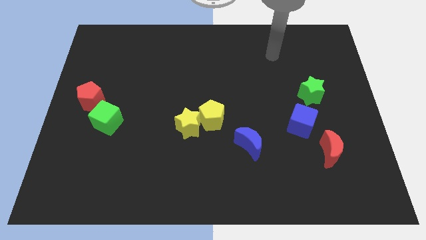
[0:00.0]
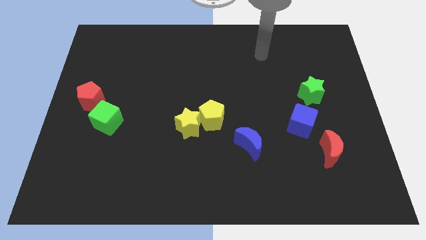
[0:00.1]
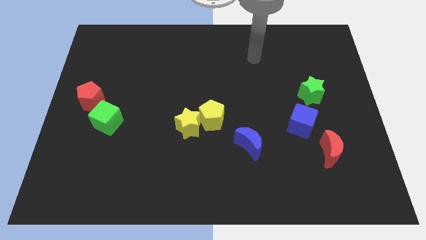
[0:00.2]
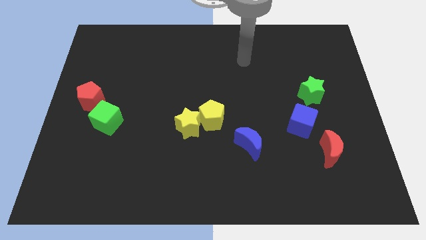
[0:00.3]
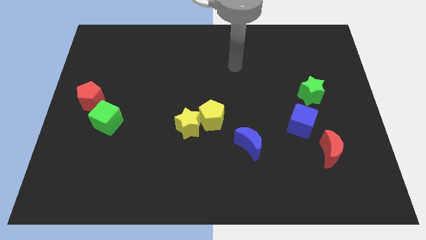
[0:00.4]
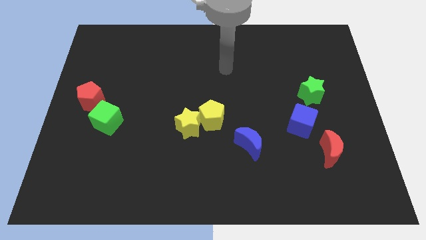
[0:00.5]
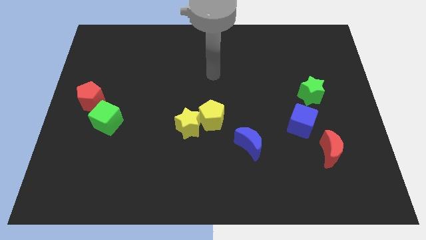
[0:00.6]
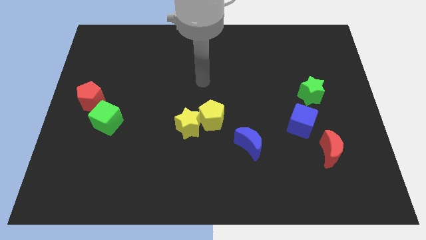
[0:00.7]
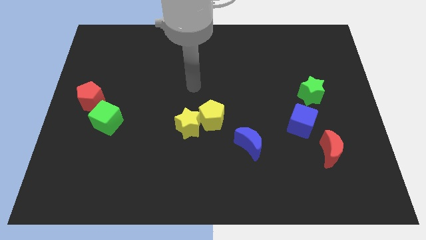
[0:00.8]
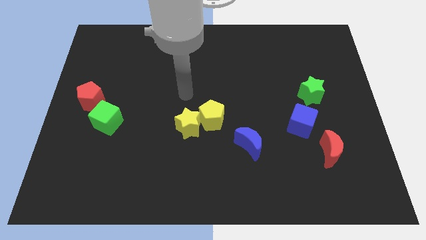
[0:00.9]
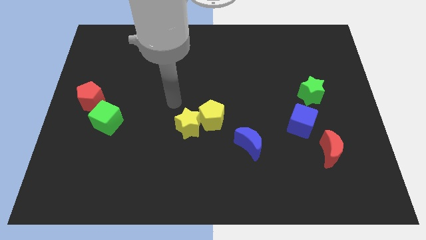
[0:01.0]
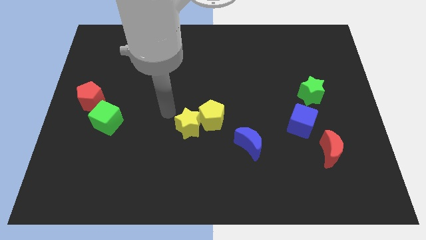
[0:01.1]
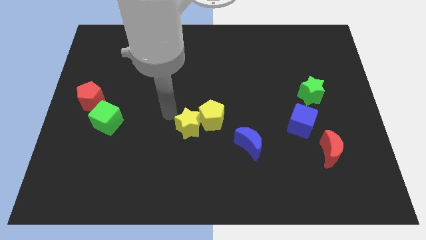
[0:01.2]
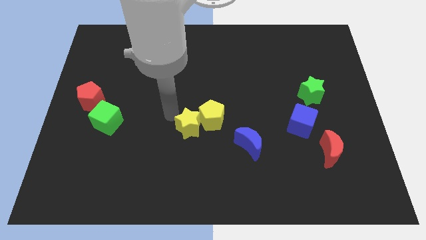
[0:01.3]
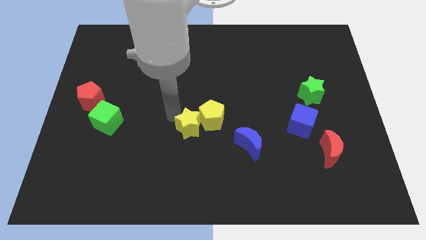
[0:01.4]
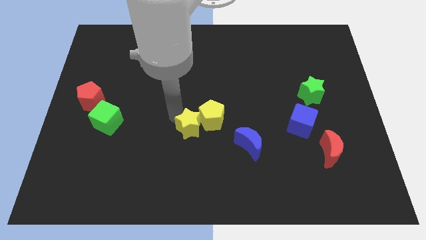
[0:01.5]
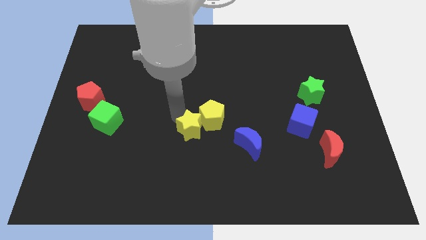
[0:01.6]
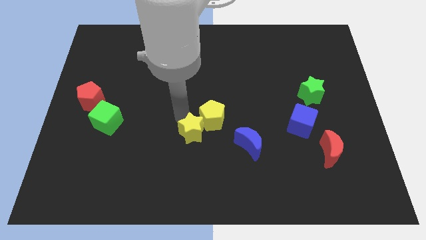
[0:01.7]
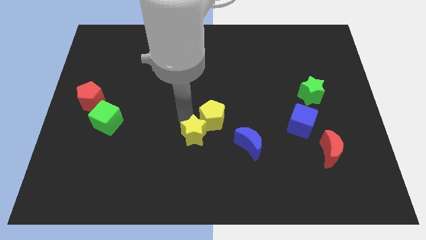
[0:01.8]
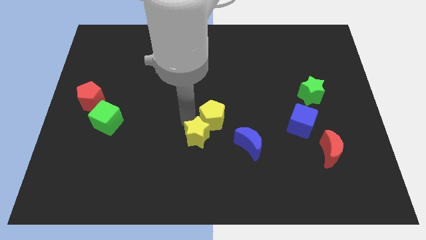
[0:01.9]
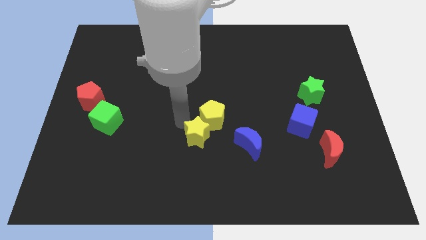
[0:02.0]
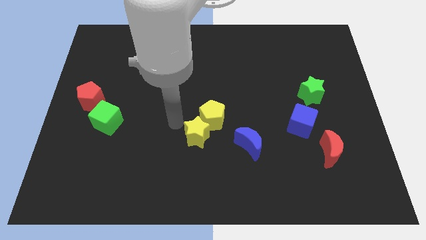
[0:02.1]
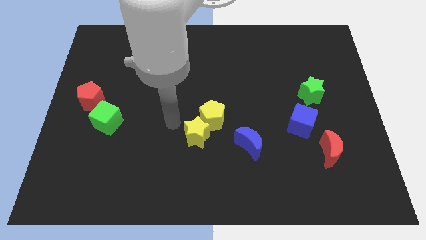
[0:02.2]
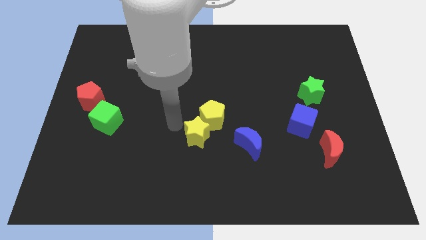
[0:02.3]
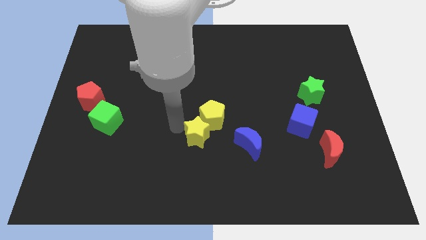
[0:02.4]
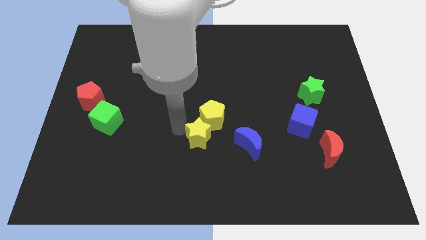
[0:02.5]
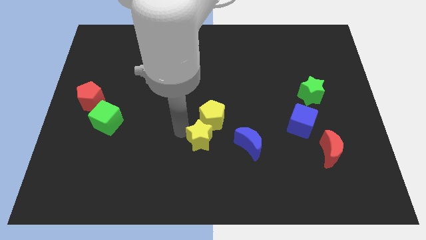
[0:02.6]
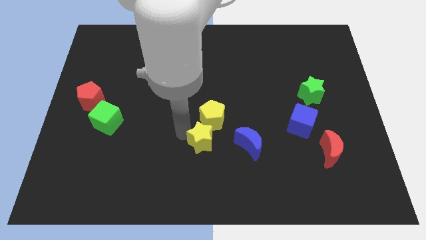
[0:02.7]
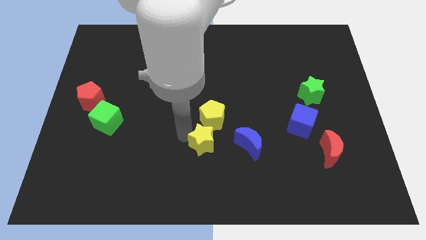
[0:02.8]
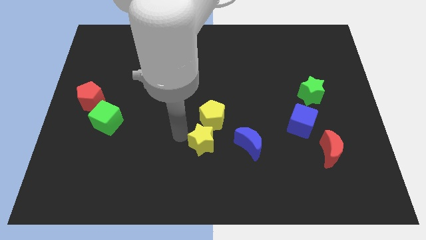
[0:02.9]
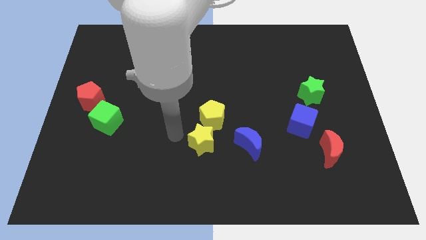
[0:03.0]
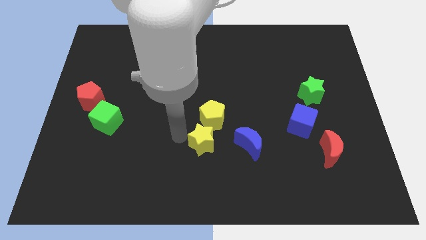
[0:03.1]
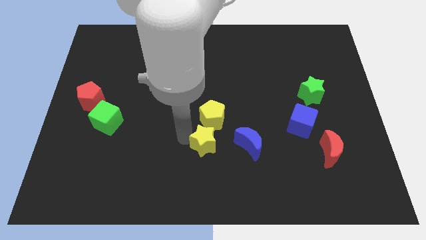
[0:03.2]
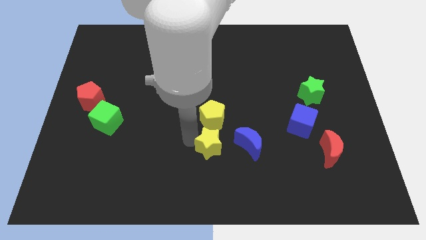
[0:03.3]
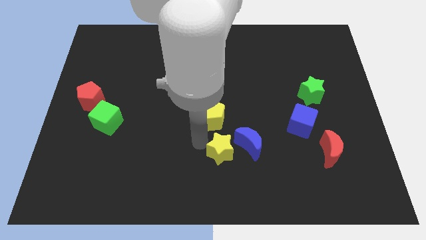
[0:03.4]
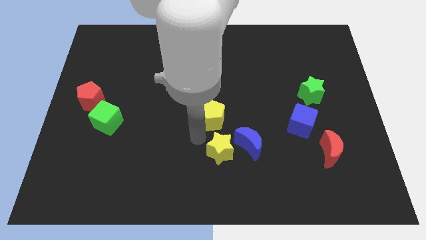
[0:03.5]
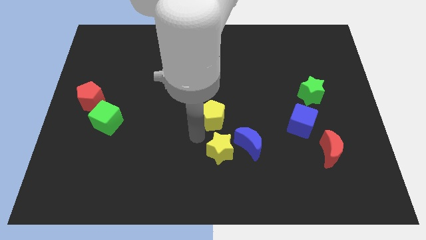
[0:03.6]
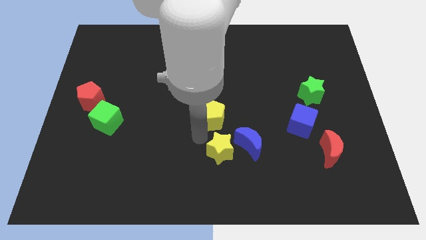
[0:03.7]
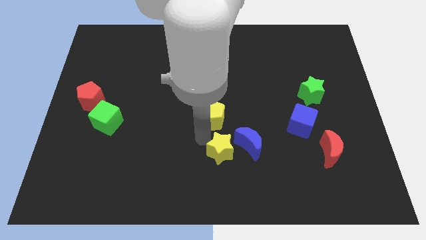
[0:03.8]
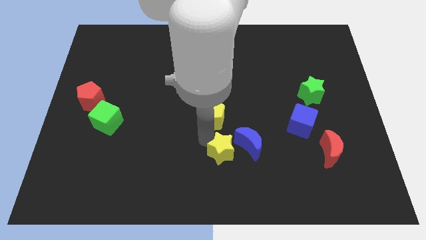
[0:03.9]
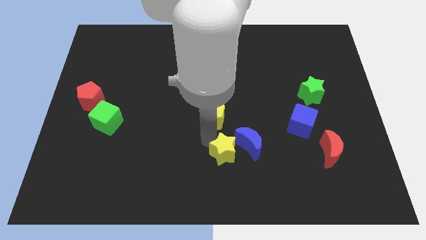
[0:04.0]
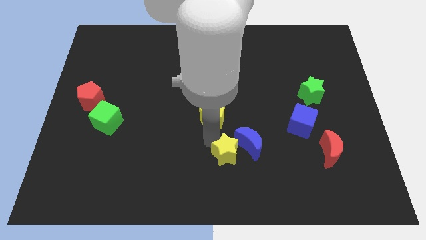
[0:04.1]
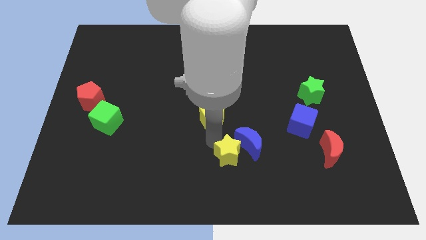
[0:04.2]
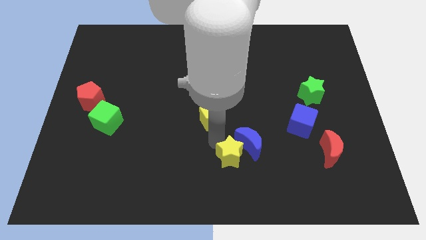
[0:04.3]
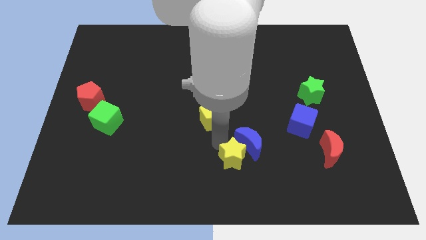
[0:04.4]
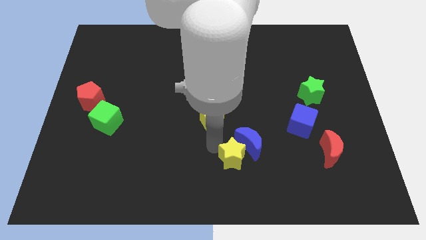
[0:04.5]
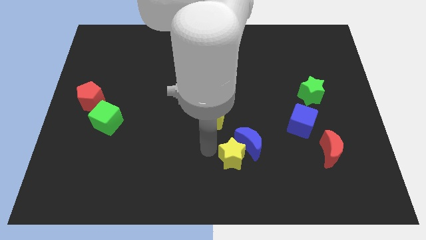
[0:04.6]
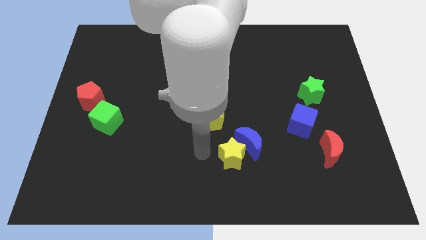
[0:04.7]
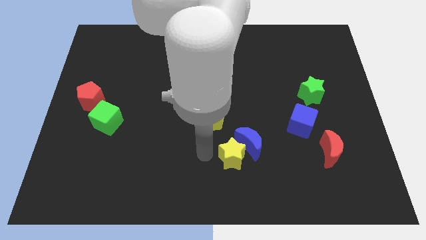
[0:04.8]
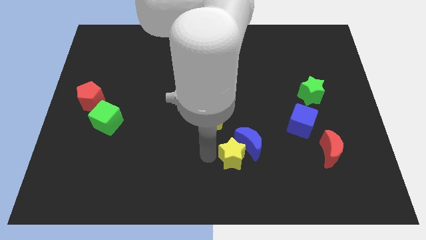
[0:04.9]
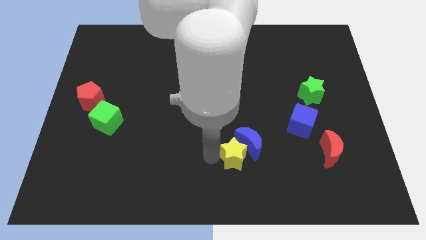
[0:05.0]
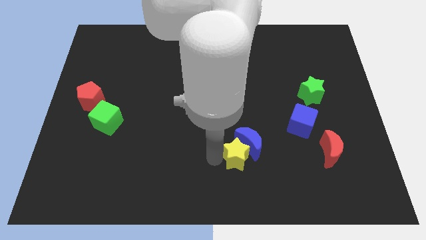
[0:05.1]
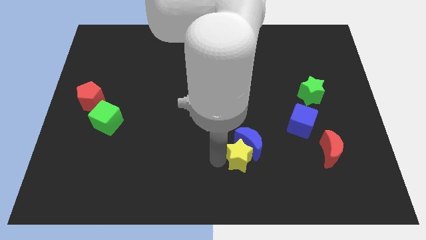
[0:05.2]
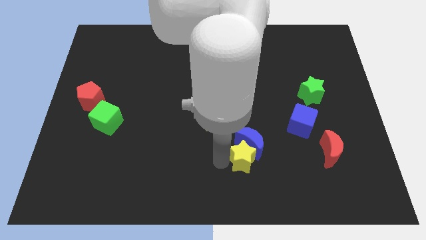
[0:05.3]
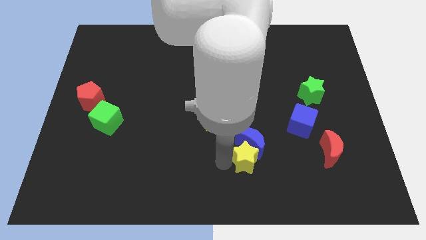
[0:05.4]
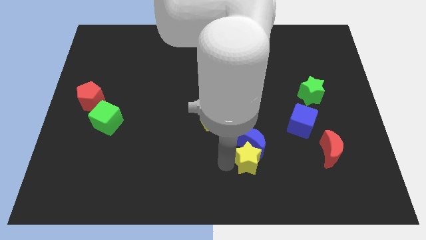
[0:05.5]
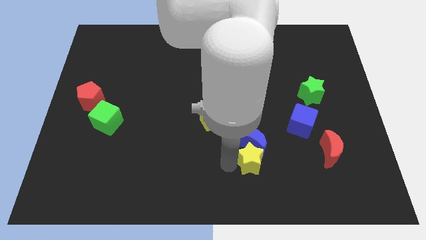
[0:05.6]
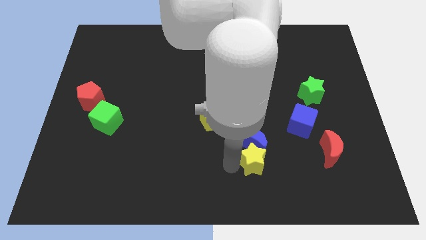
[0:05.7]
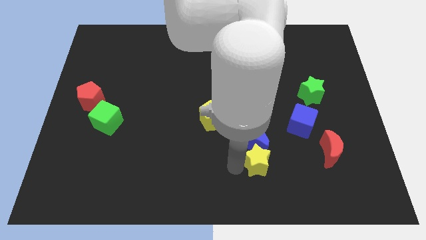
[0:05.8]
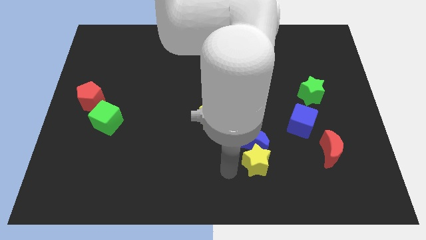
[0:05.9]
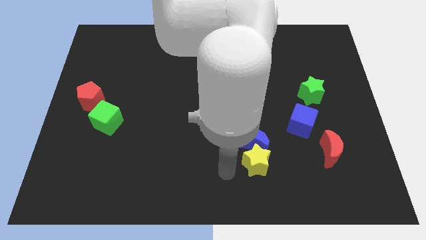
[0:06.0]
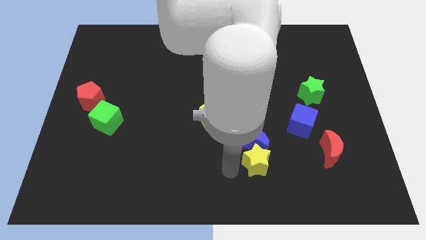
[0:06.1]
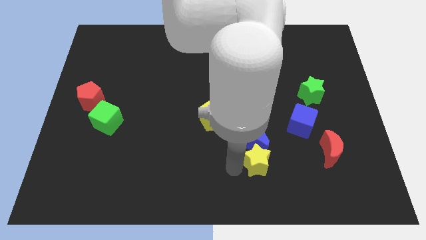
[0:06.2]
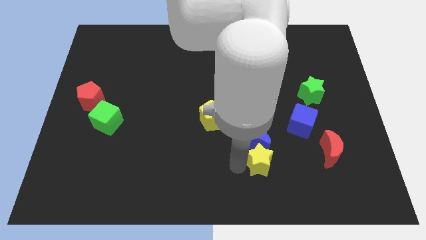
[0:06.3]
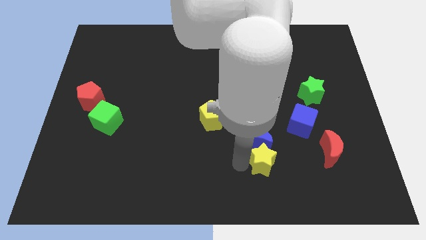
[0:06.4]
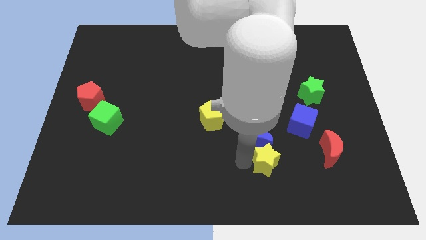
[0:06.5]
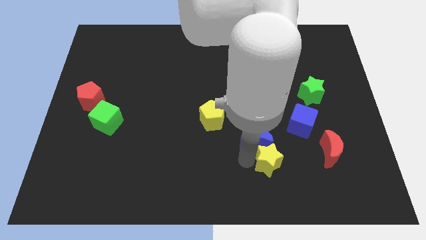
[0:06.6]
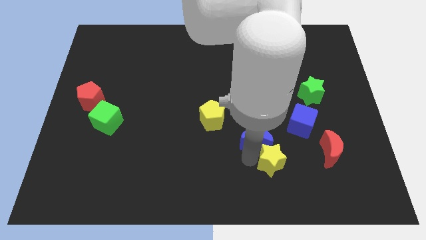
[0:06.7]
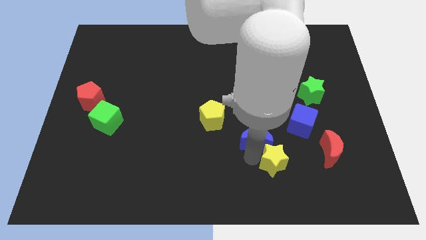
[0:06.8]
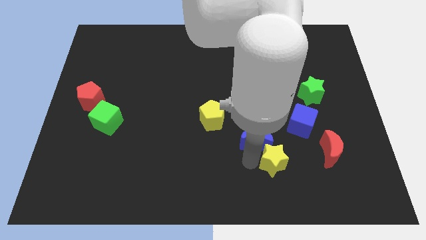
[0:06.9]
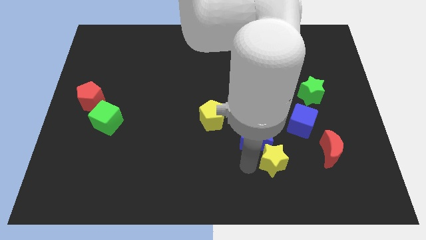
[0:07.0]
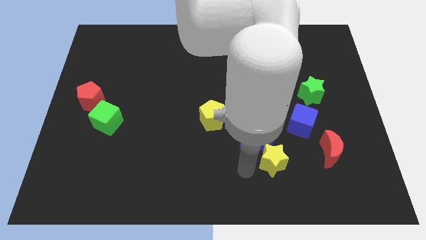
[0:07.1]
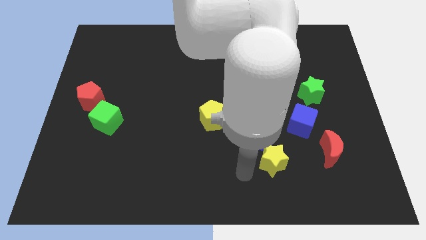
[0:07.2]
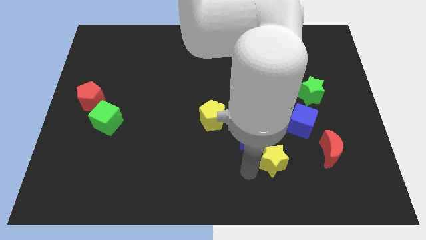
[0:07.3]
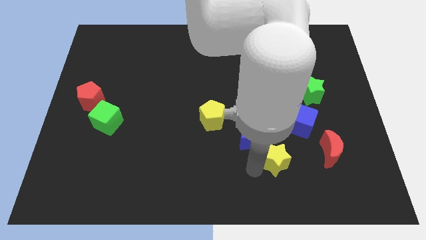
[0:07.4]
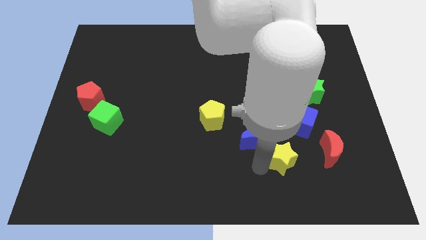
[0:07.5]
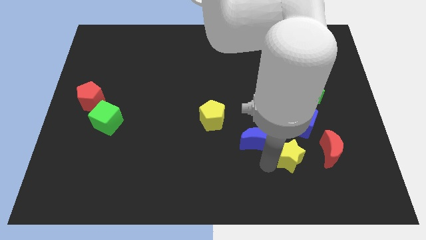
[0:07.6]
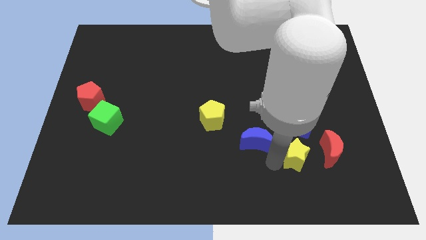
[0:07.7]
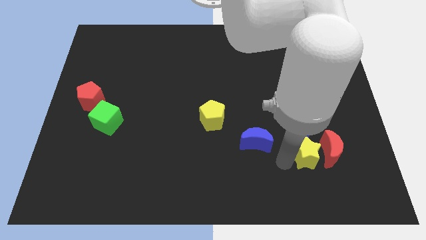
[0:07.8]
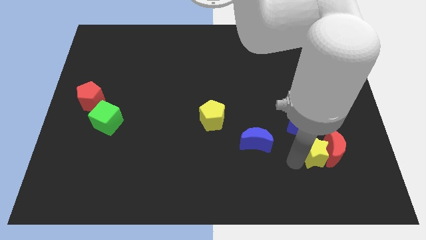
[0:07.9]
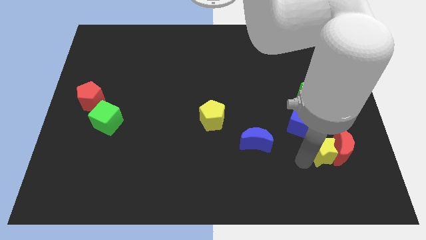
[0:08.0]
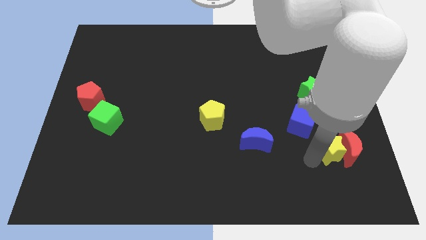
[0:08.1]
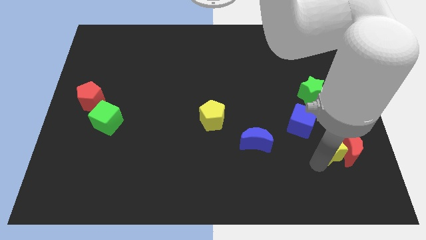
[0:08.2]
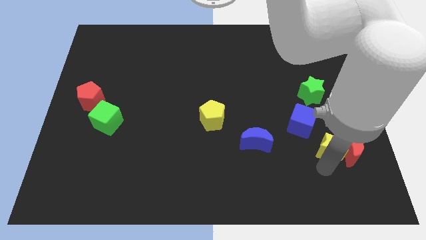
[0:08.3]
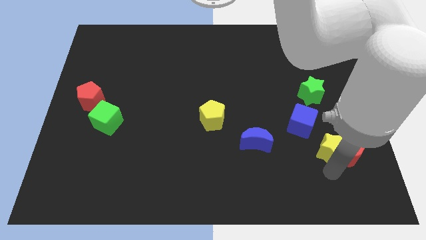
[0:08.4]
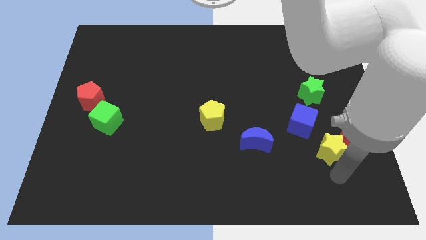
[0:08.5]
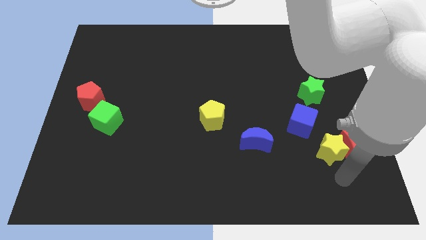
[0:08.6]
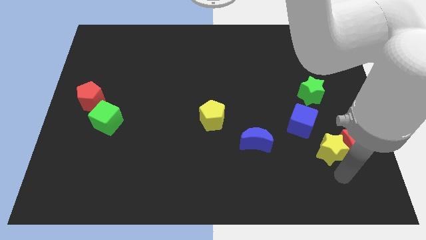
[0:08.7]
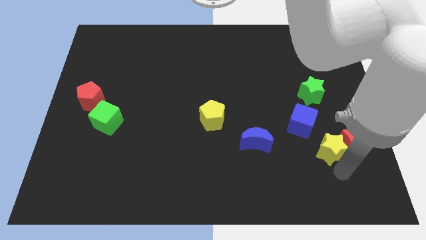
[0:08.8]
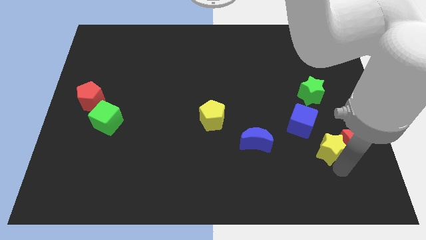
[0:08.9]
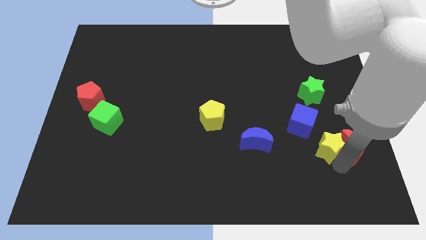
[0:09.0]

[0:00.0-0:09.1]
put the yellow star below the green star
